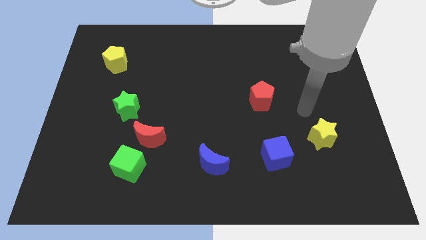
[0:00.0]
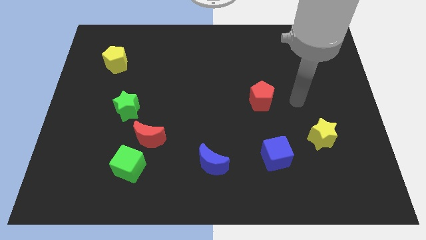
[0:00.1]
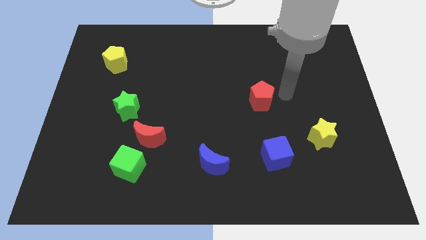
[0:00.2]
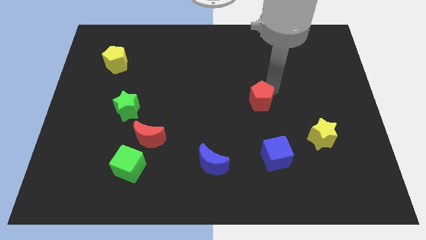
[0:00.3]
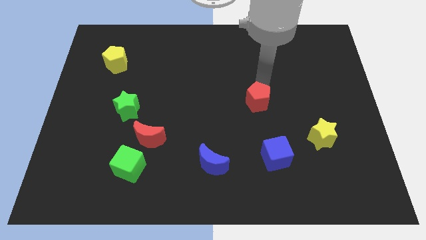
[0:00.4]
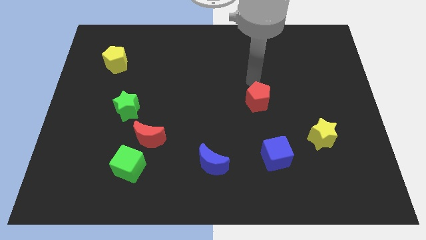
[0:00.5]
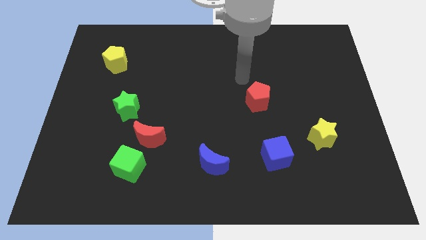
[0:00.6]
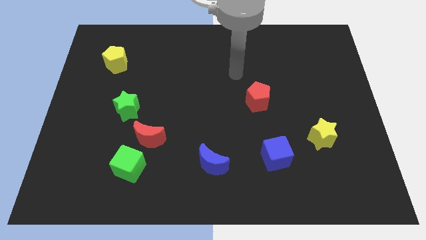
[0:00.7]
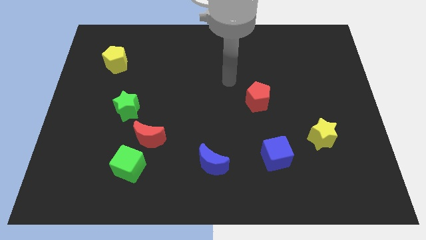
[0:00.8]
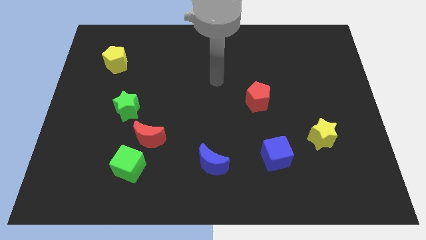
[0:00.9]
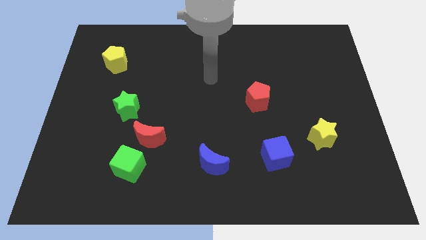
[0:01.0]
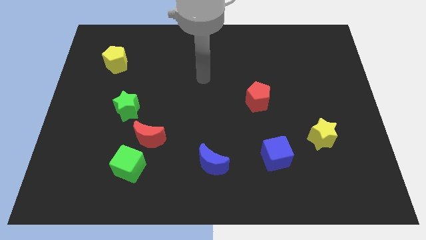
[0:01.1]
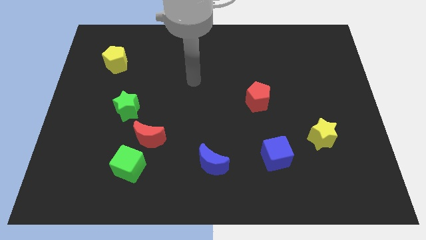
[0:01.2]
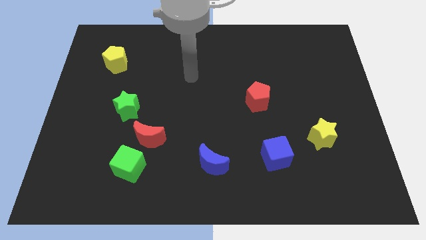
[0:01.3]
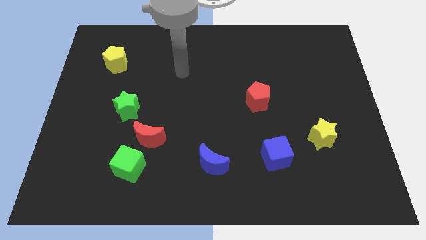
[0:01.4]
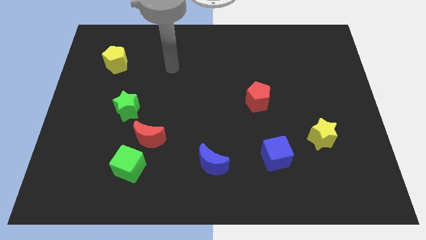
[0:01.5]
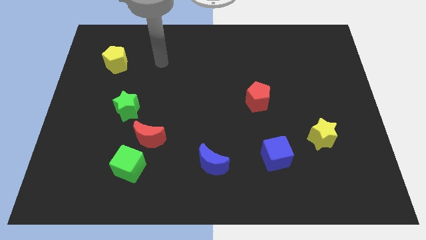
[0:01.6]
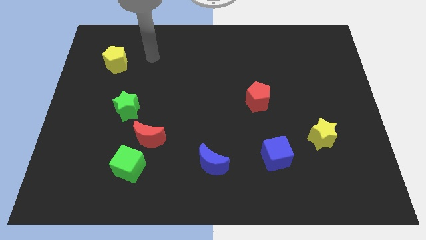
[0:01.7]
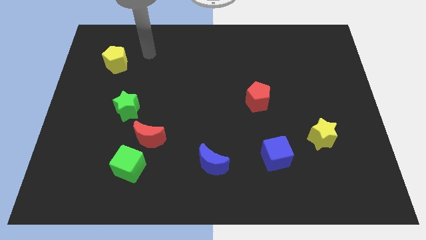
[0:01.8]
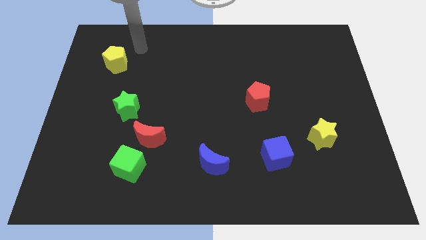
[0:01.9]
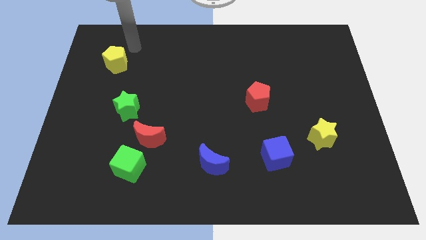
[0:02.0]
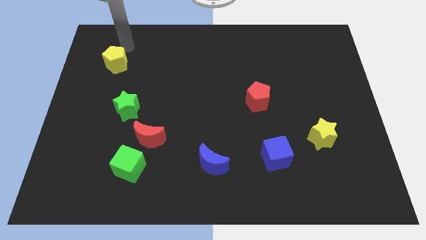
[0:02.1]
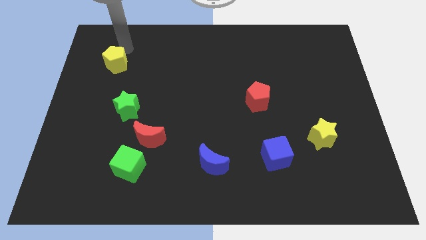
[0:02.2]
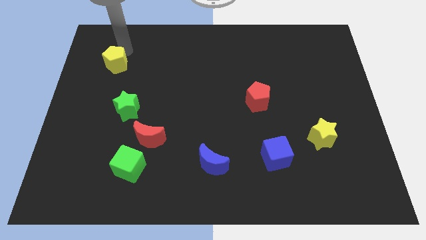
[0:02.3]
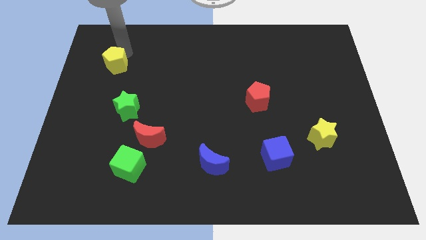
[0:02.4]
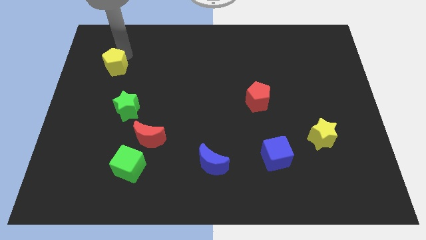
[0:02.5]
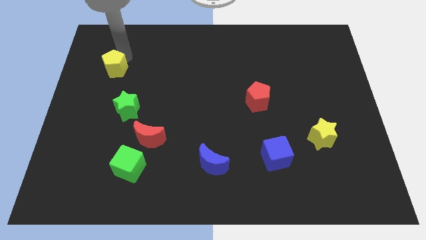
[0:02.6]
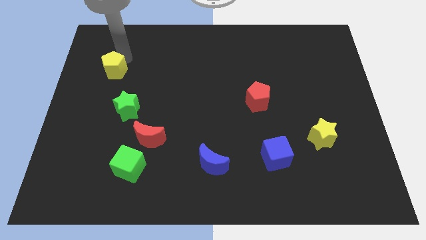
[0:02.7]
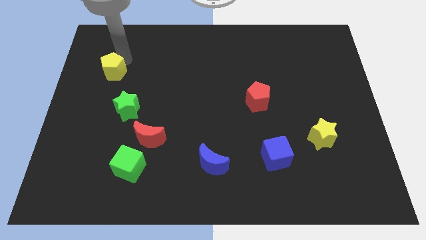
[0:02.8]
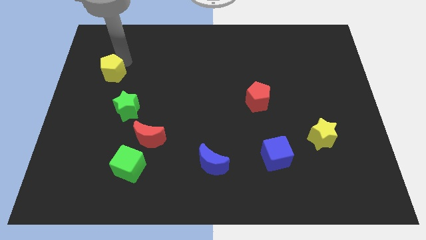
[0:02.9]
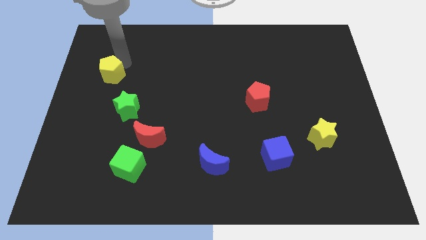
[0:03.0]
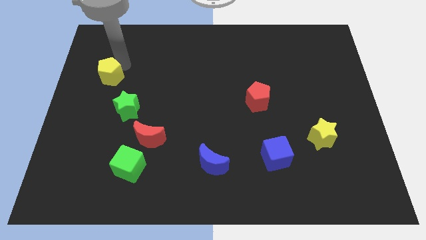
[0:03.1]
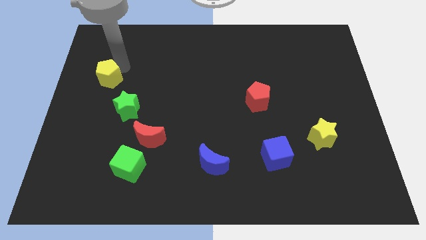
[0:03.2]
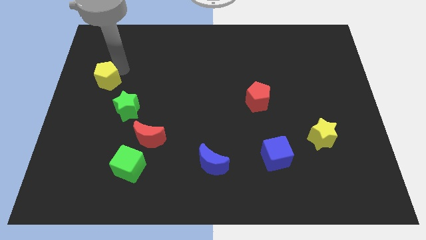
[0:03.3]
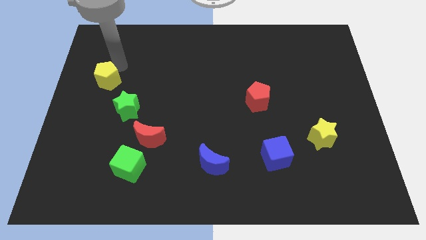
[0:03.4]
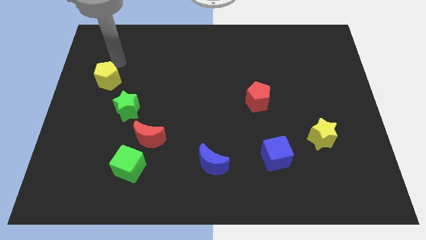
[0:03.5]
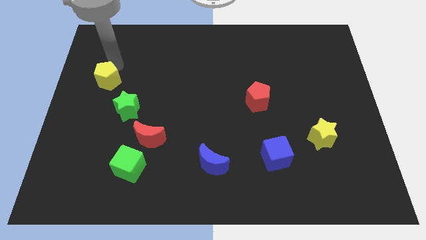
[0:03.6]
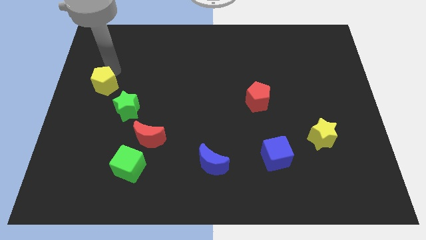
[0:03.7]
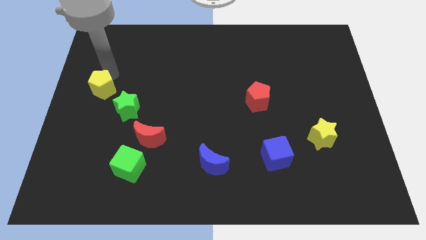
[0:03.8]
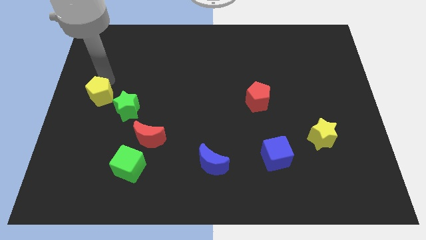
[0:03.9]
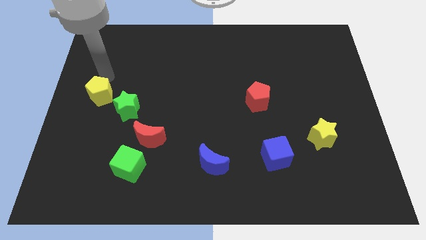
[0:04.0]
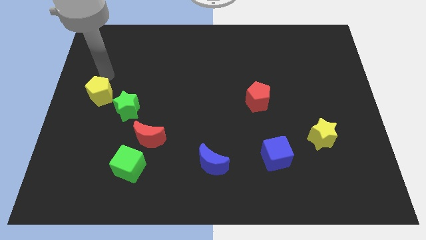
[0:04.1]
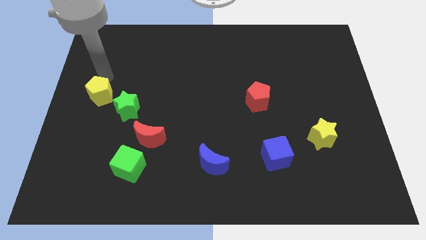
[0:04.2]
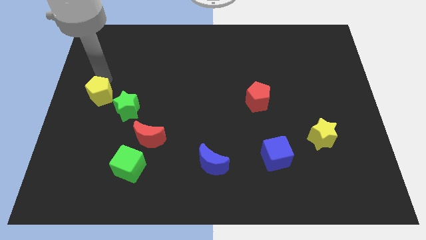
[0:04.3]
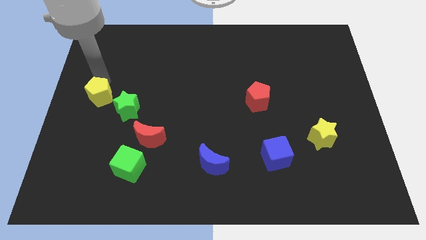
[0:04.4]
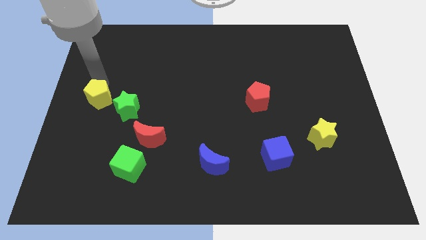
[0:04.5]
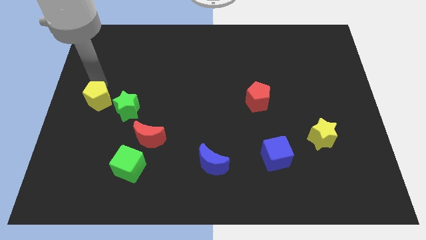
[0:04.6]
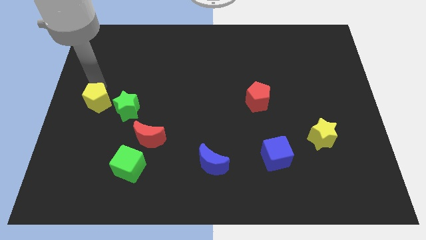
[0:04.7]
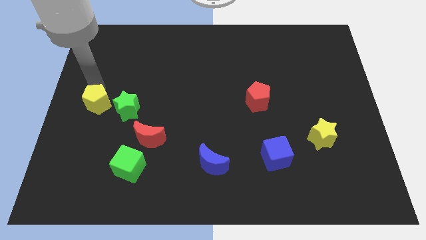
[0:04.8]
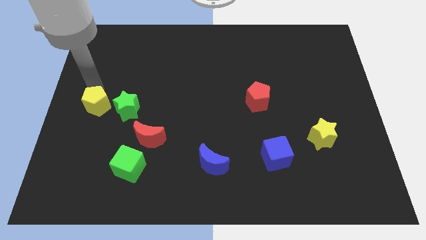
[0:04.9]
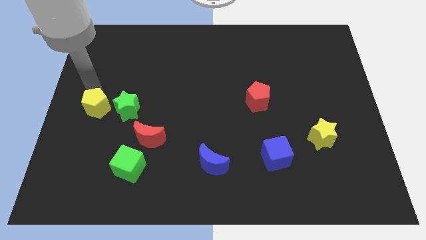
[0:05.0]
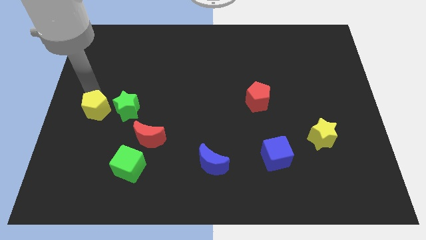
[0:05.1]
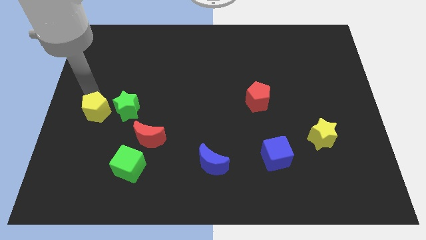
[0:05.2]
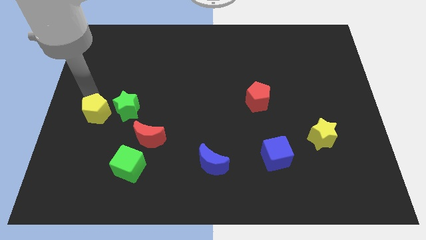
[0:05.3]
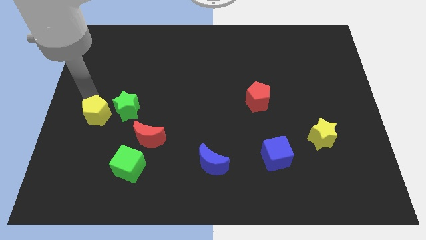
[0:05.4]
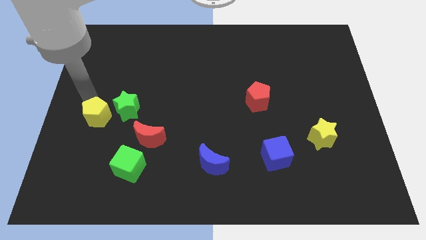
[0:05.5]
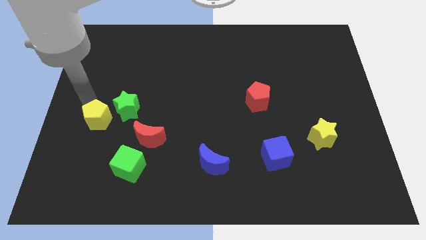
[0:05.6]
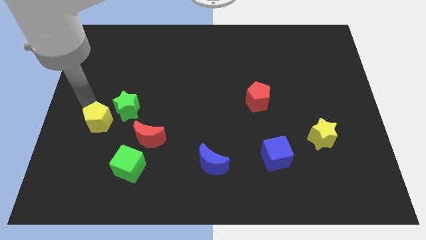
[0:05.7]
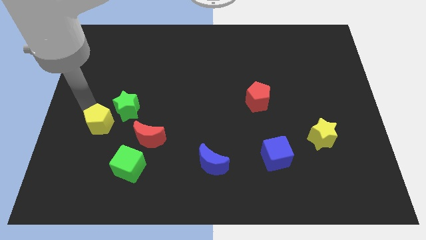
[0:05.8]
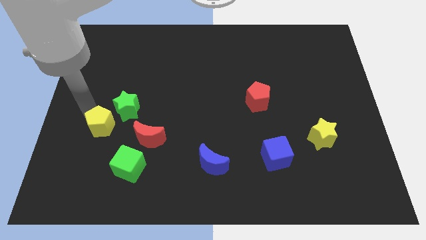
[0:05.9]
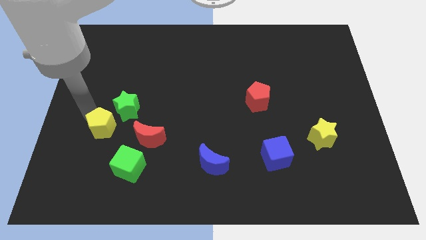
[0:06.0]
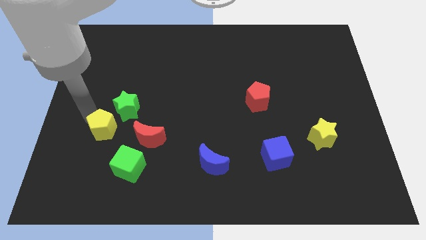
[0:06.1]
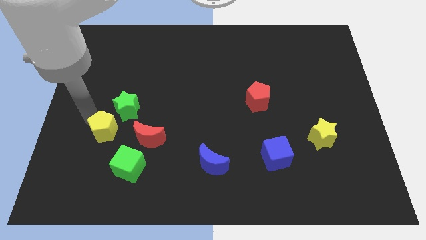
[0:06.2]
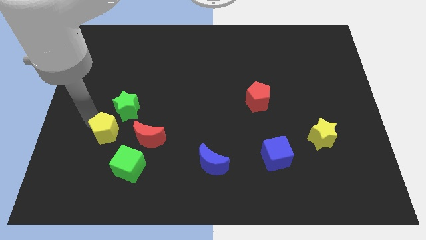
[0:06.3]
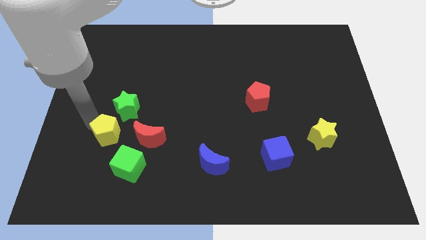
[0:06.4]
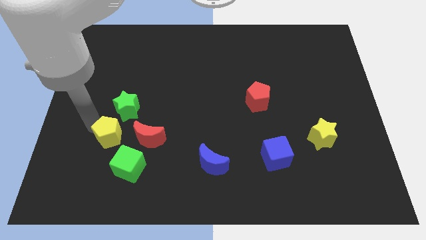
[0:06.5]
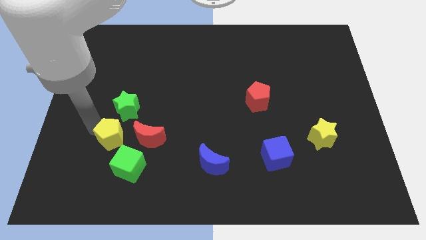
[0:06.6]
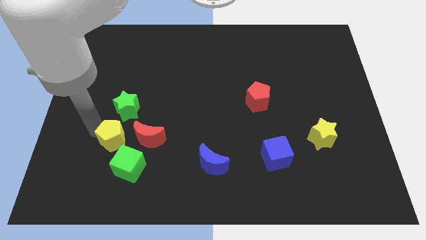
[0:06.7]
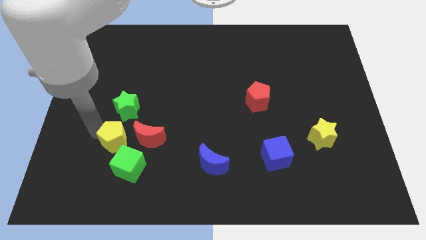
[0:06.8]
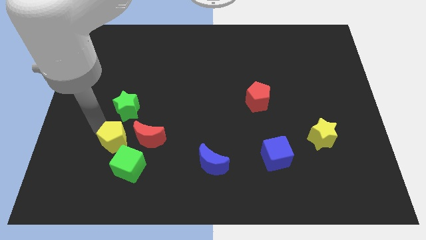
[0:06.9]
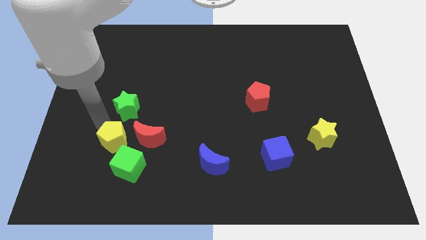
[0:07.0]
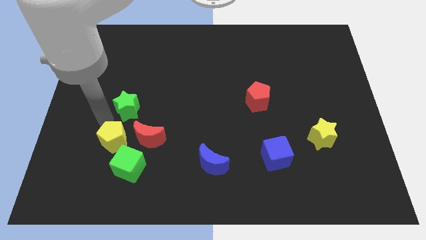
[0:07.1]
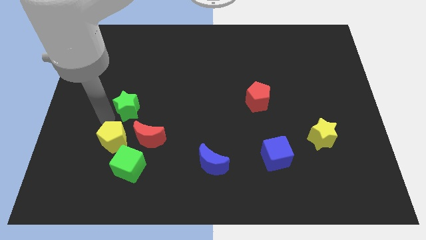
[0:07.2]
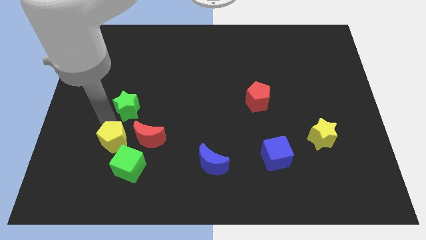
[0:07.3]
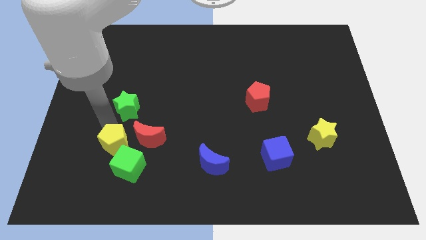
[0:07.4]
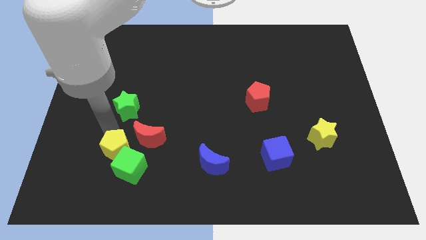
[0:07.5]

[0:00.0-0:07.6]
move the yellow pentagon to the green cube
